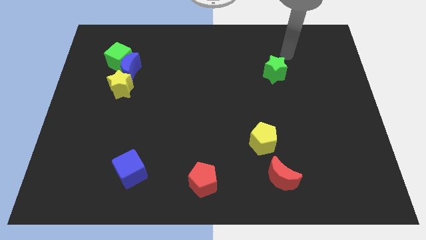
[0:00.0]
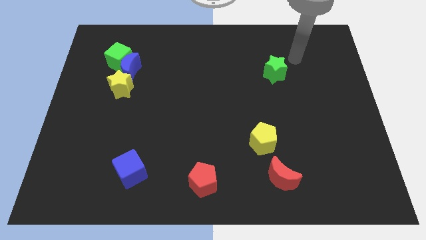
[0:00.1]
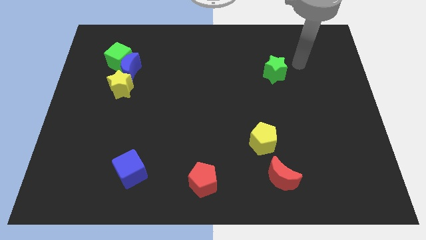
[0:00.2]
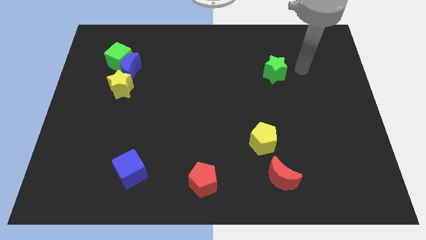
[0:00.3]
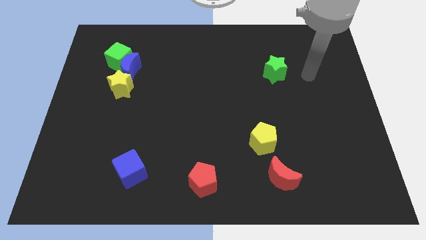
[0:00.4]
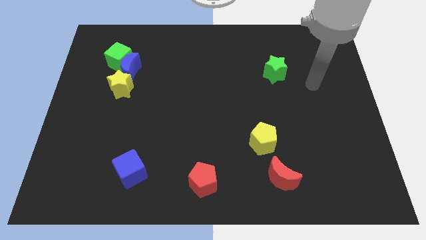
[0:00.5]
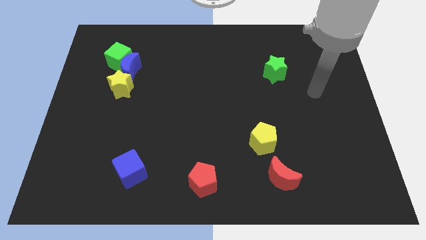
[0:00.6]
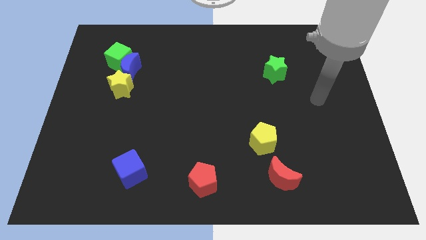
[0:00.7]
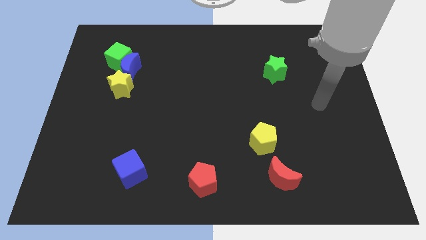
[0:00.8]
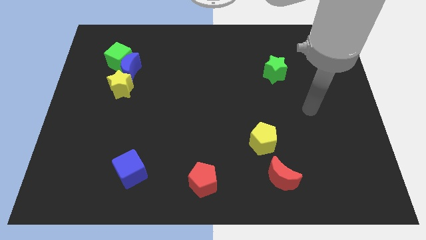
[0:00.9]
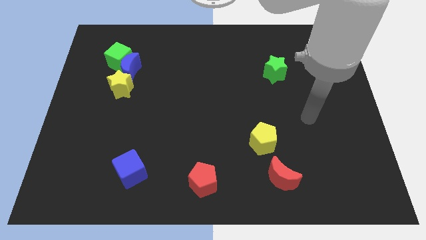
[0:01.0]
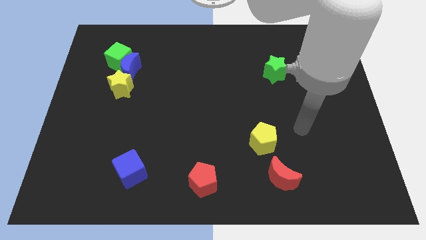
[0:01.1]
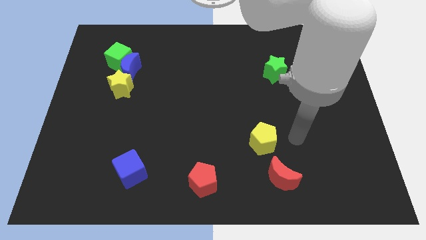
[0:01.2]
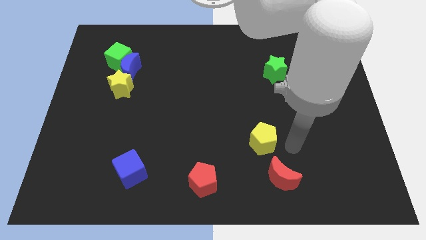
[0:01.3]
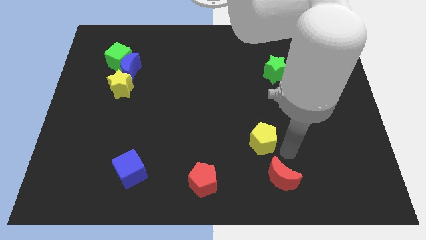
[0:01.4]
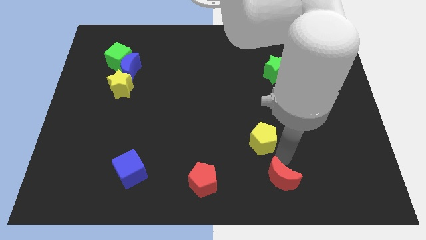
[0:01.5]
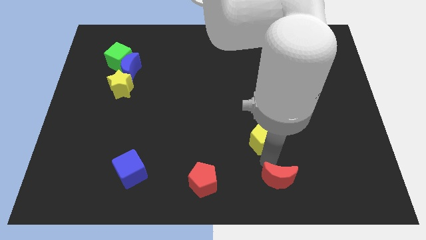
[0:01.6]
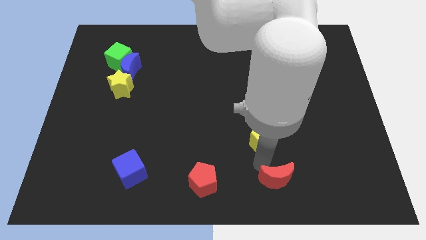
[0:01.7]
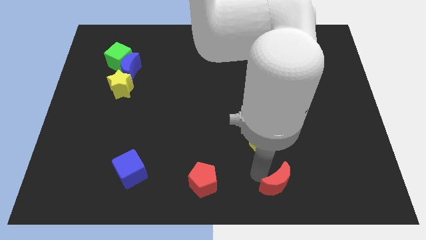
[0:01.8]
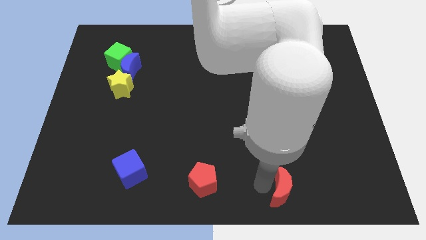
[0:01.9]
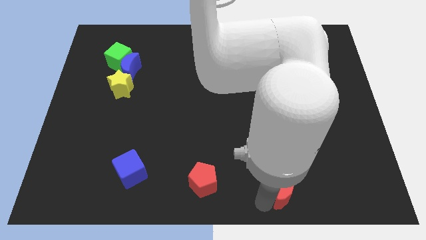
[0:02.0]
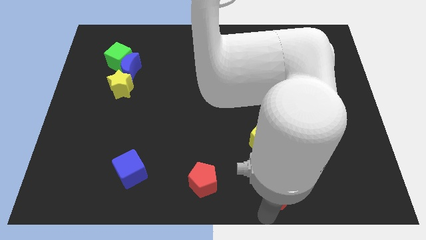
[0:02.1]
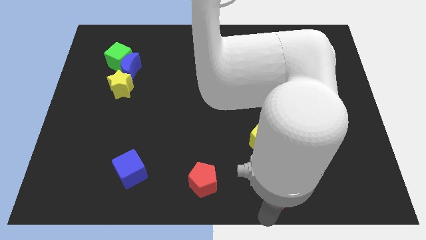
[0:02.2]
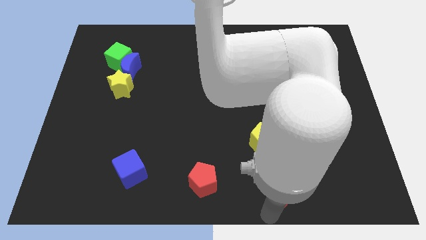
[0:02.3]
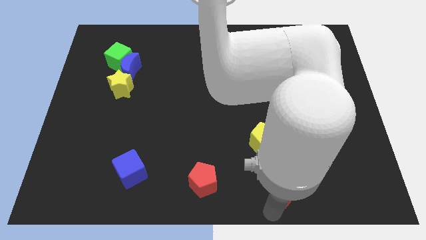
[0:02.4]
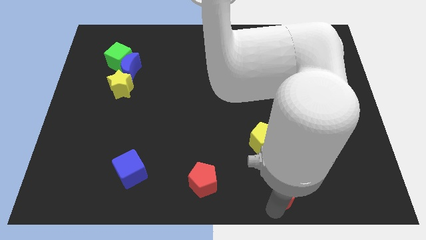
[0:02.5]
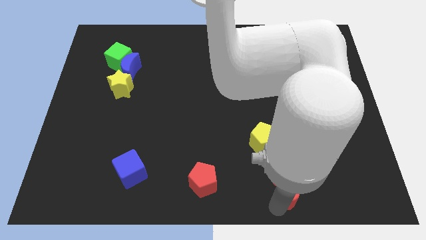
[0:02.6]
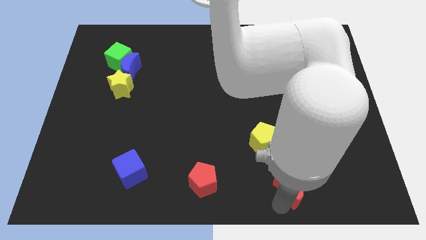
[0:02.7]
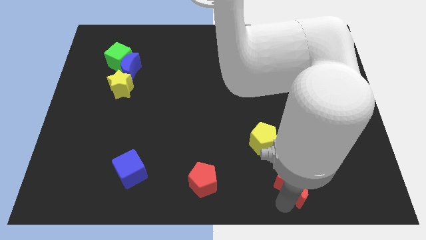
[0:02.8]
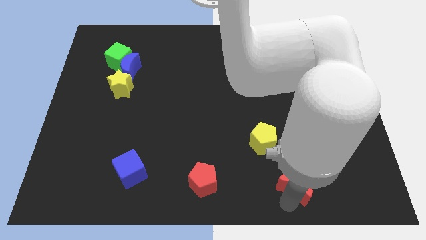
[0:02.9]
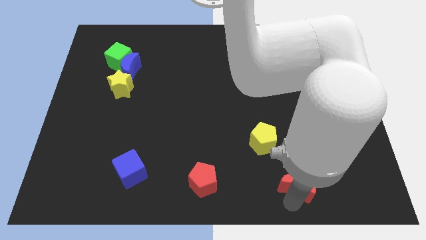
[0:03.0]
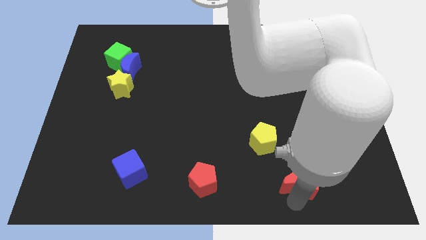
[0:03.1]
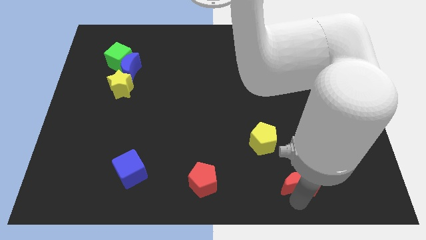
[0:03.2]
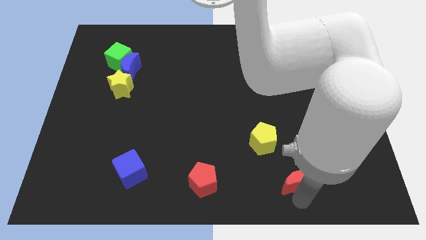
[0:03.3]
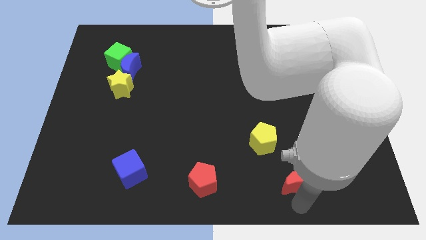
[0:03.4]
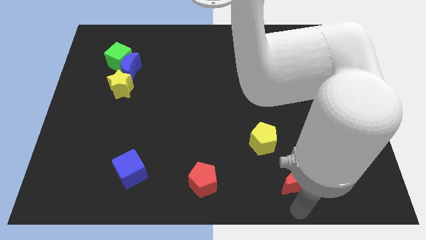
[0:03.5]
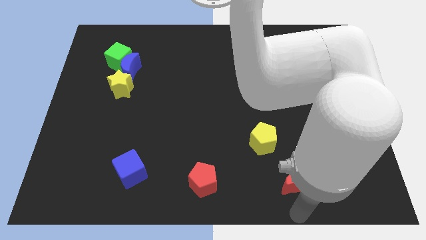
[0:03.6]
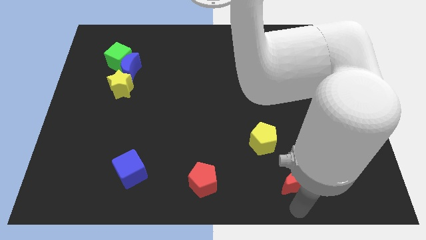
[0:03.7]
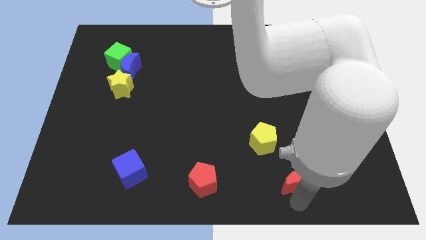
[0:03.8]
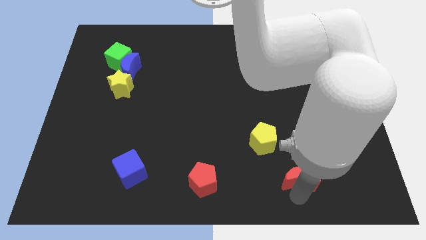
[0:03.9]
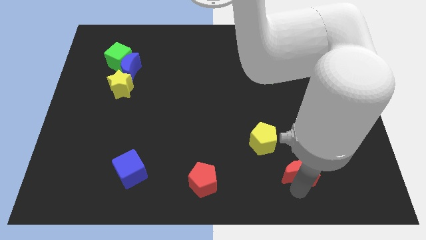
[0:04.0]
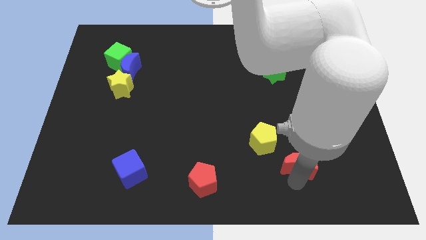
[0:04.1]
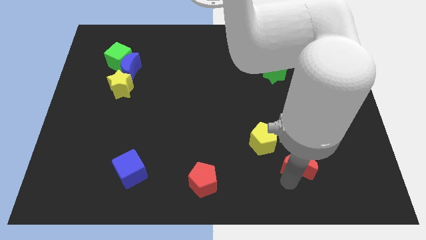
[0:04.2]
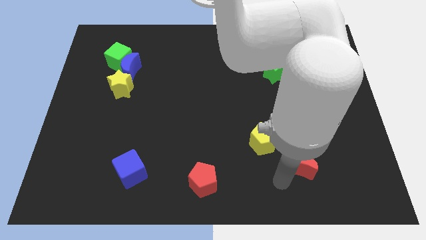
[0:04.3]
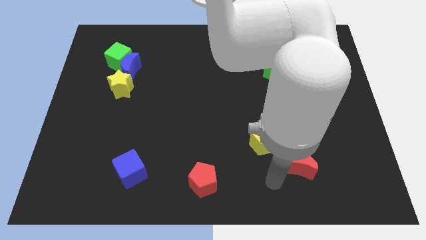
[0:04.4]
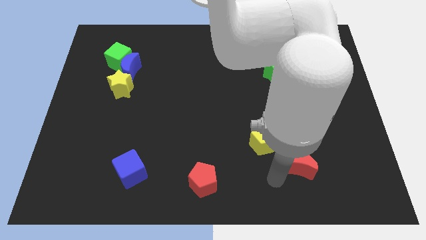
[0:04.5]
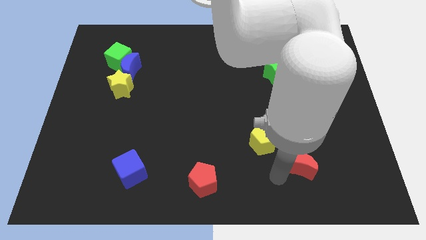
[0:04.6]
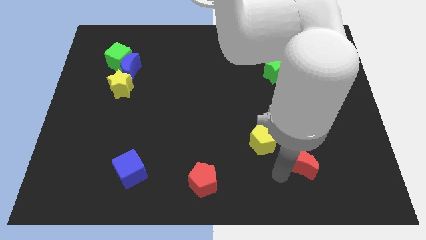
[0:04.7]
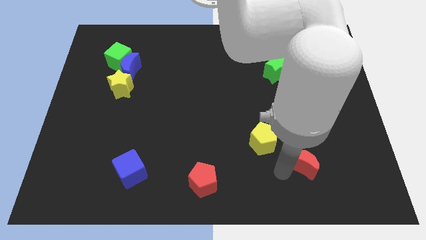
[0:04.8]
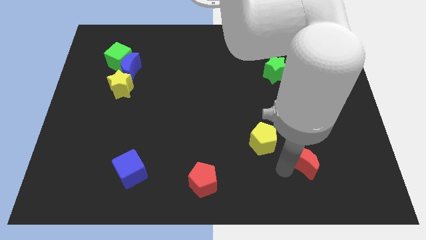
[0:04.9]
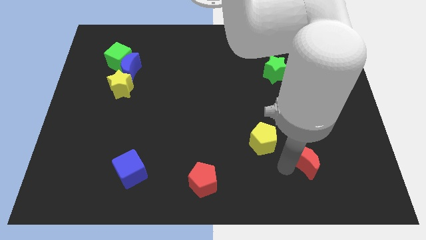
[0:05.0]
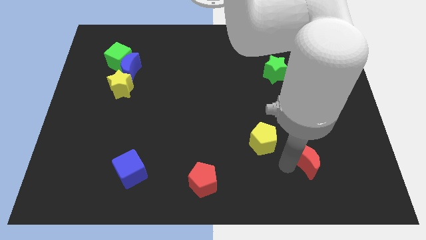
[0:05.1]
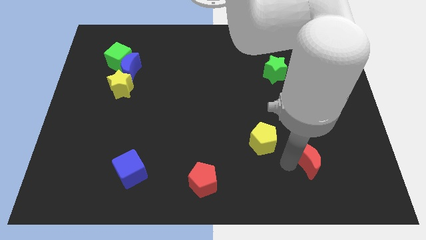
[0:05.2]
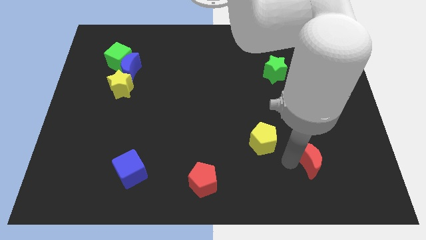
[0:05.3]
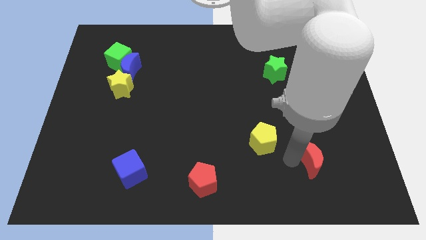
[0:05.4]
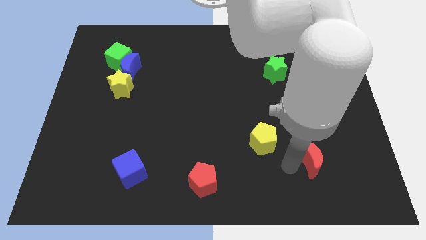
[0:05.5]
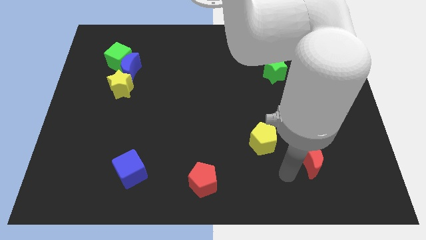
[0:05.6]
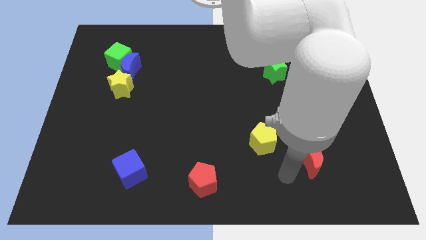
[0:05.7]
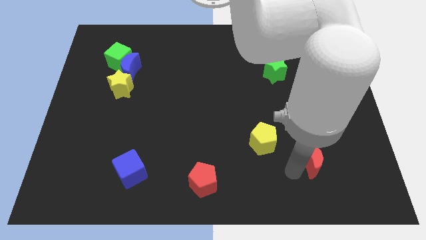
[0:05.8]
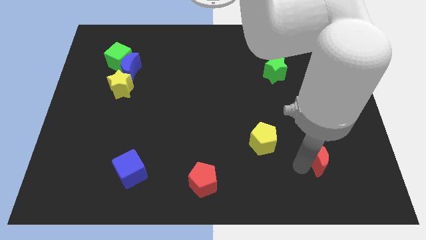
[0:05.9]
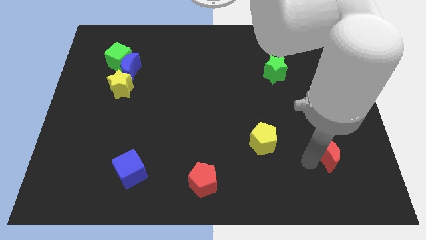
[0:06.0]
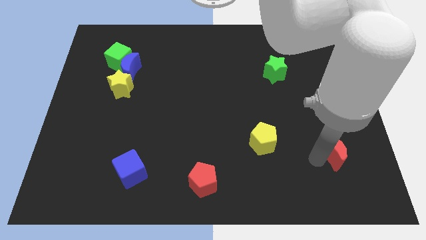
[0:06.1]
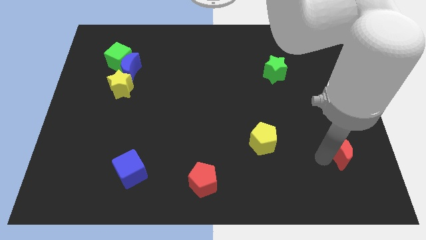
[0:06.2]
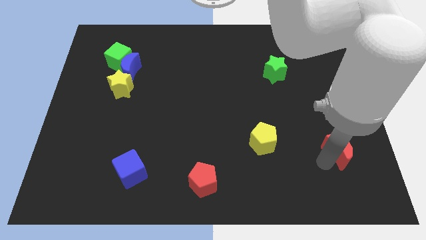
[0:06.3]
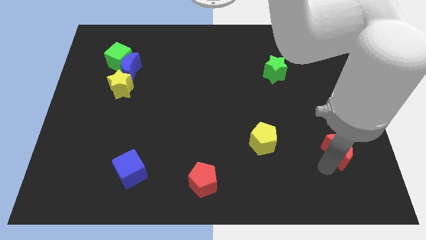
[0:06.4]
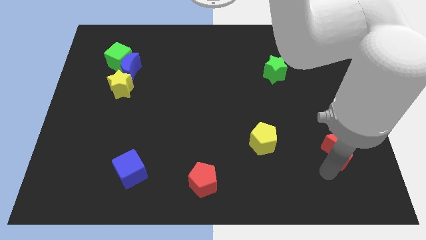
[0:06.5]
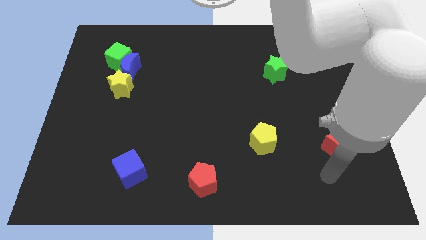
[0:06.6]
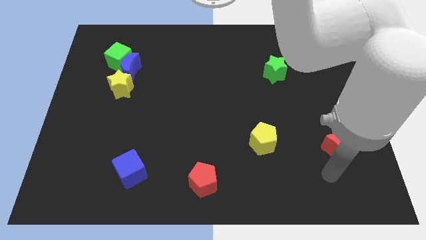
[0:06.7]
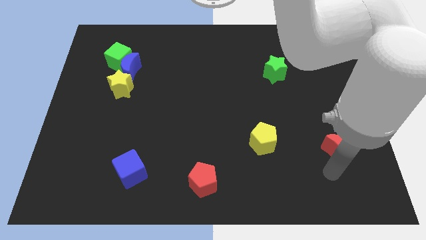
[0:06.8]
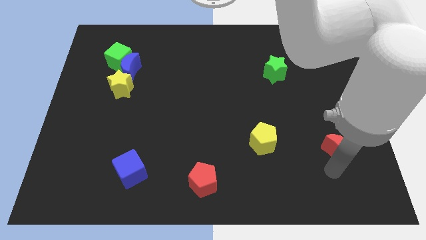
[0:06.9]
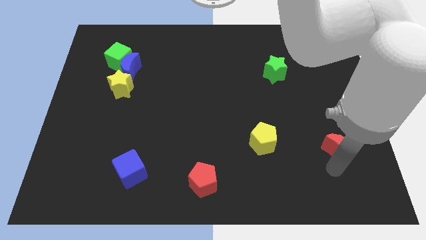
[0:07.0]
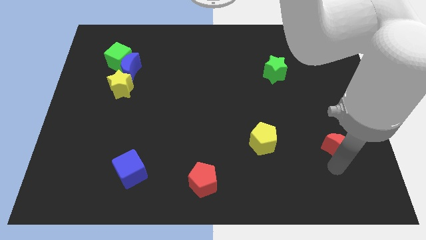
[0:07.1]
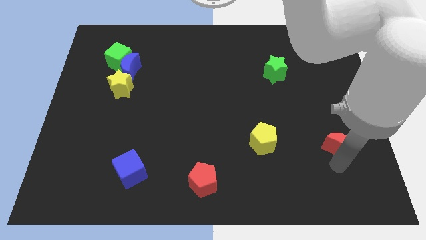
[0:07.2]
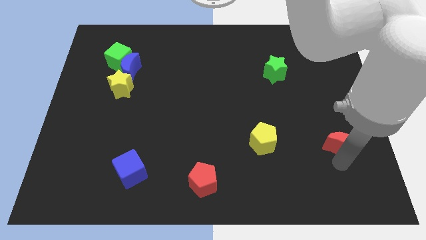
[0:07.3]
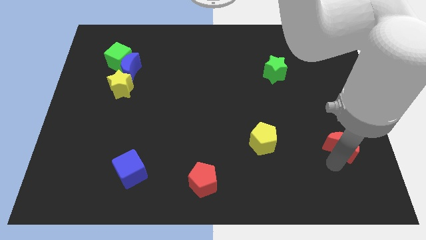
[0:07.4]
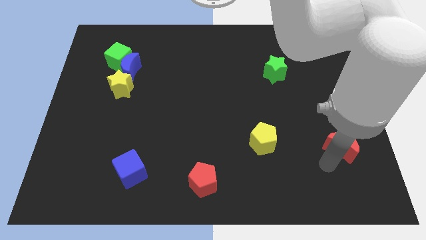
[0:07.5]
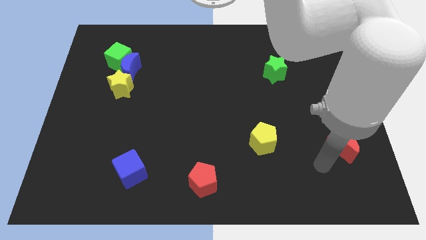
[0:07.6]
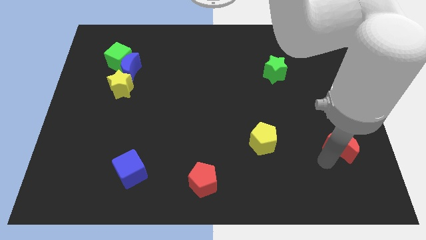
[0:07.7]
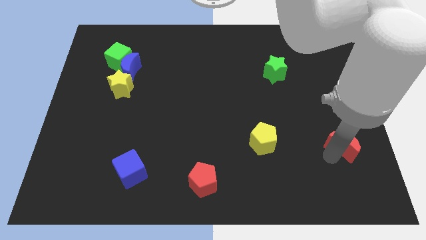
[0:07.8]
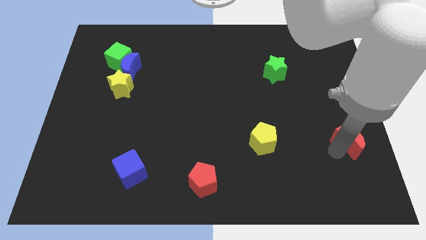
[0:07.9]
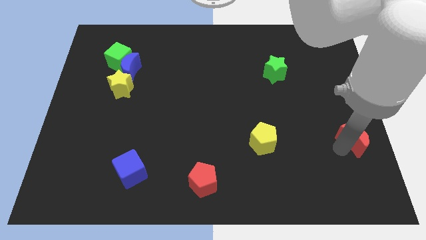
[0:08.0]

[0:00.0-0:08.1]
slide the red moon to the right side of the board
